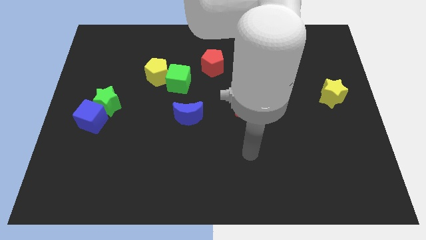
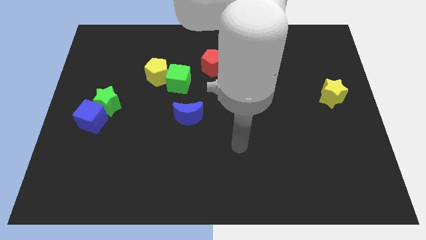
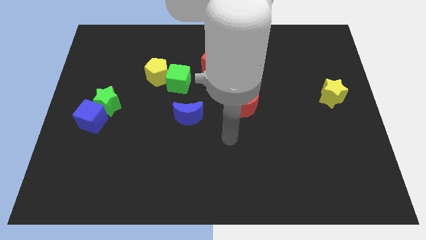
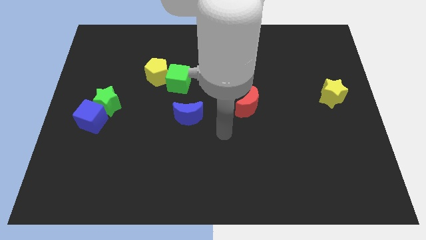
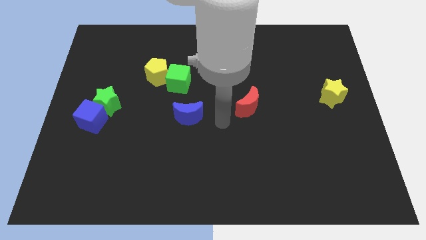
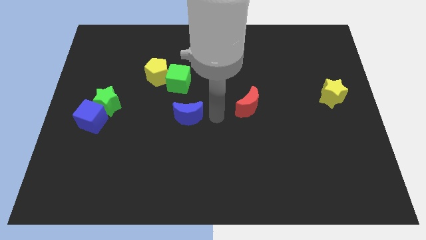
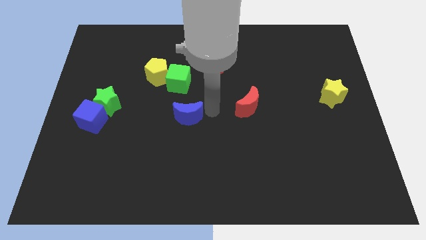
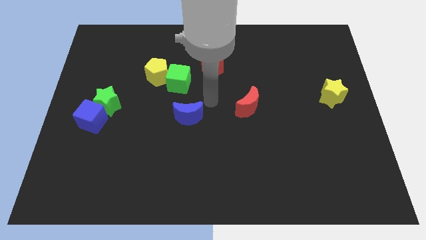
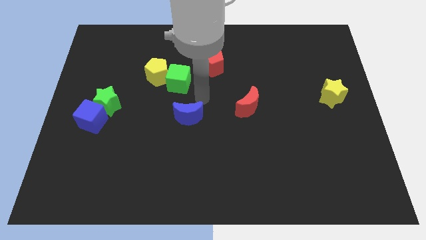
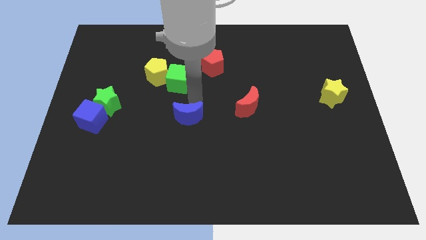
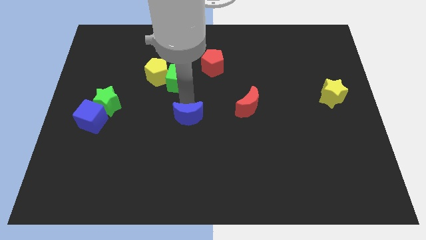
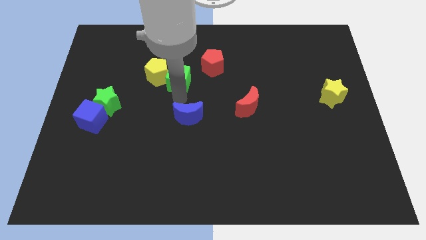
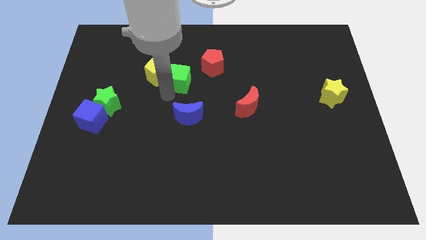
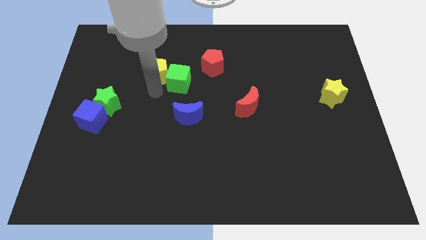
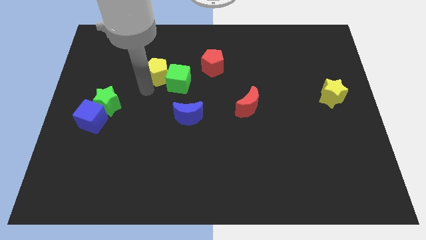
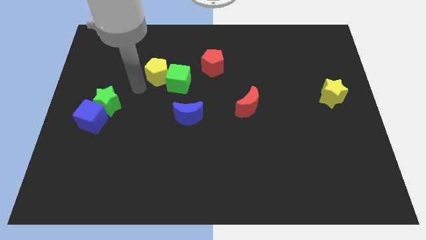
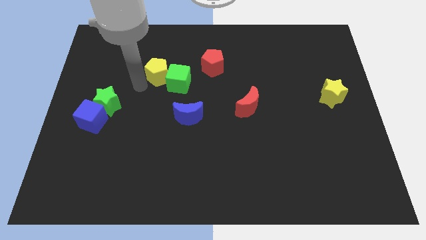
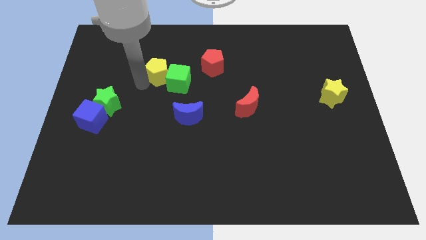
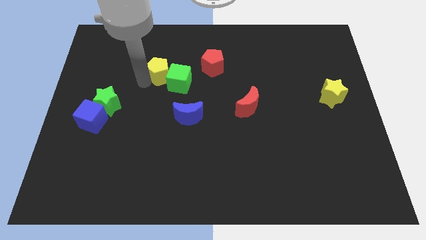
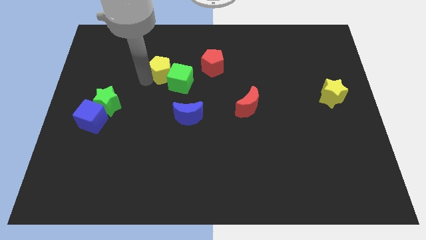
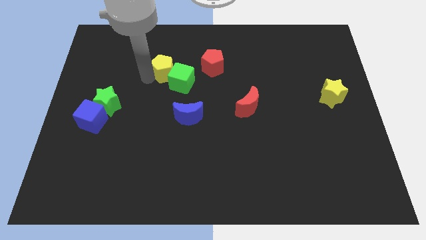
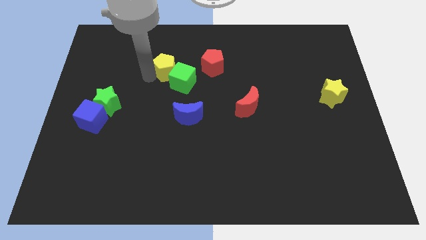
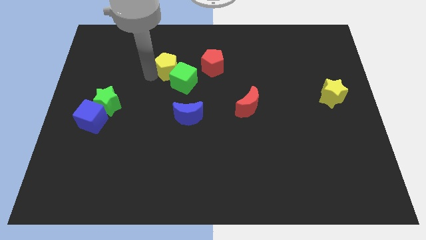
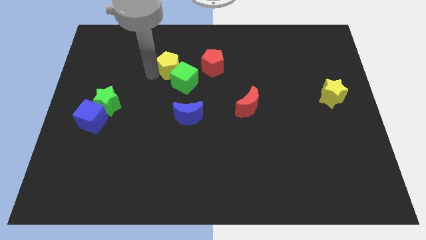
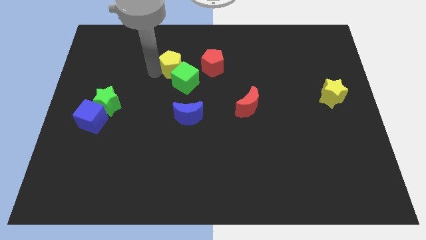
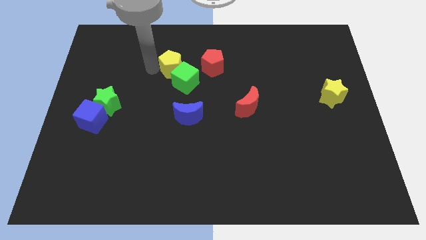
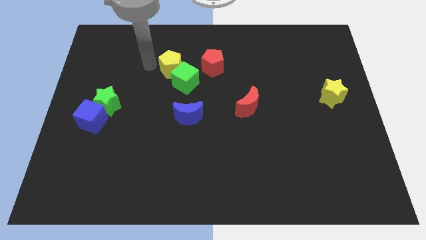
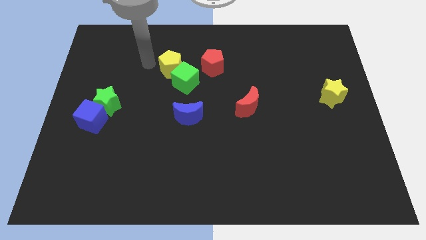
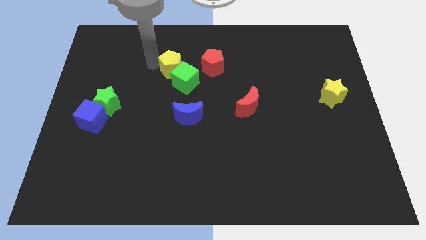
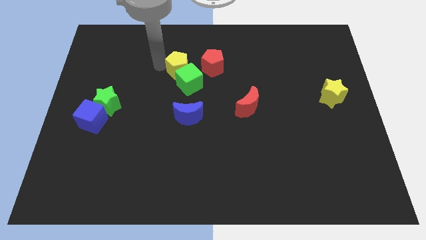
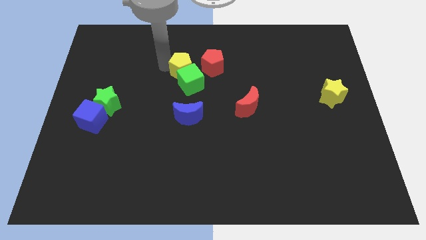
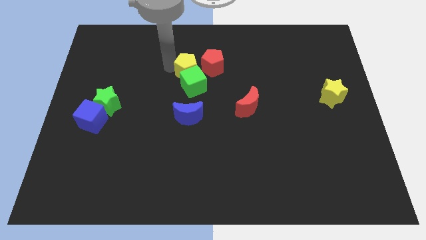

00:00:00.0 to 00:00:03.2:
slide the yellow pentagon right a little

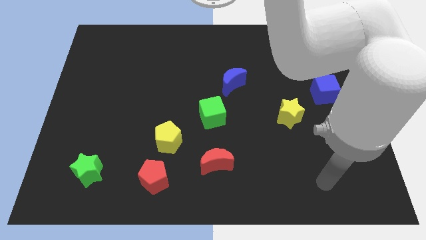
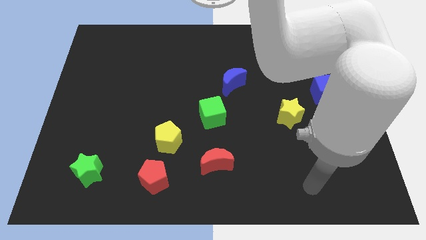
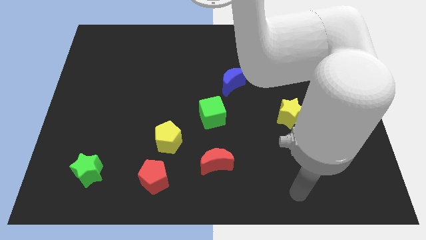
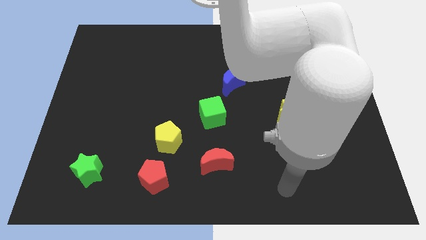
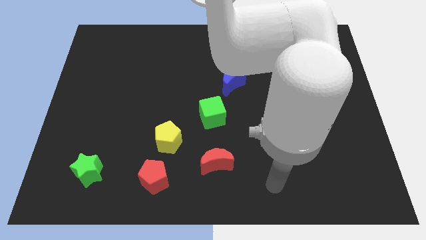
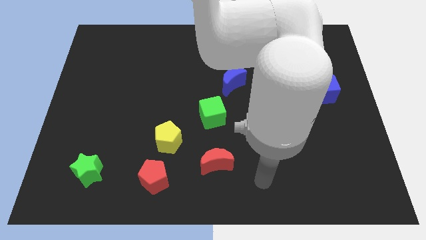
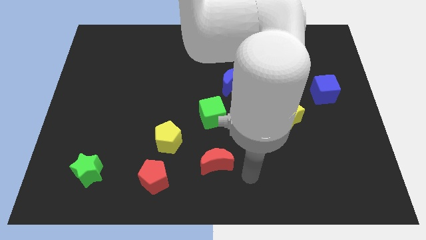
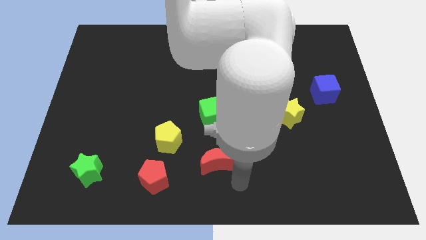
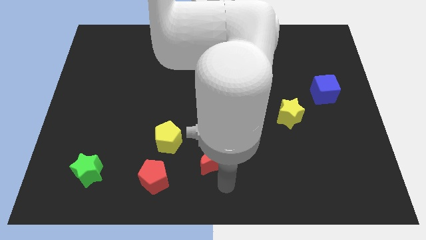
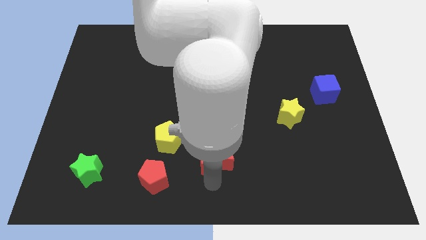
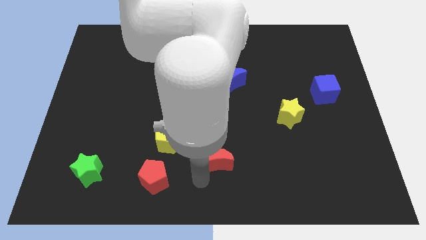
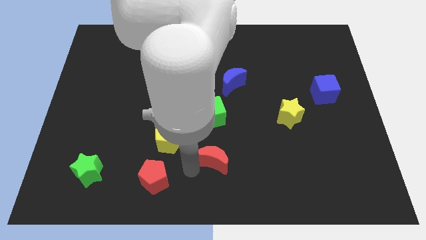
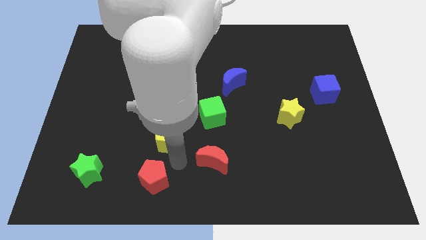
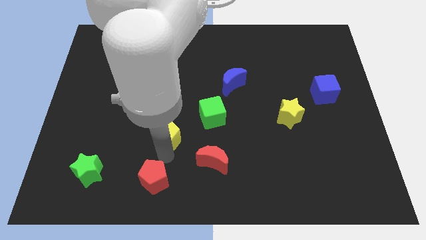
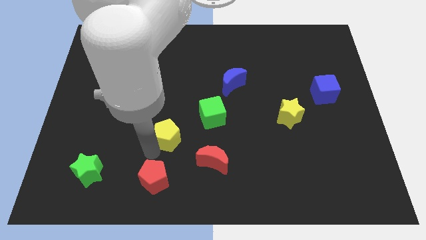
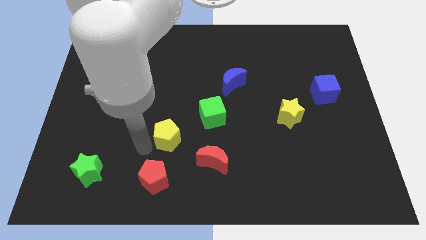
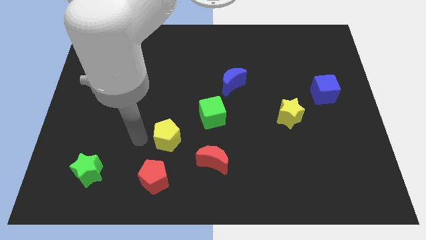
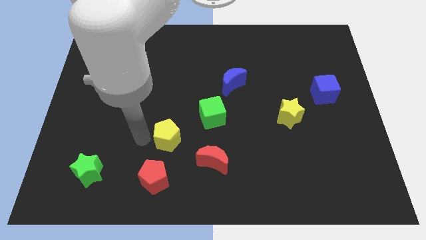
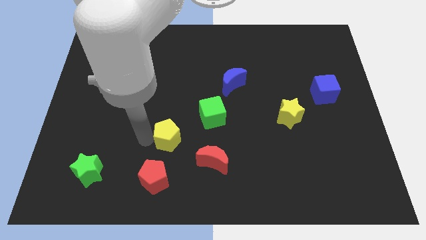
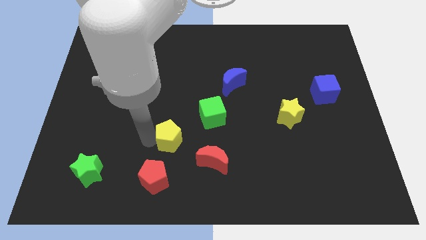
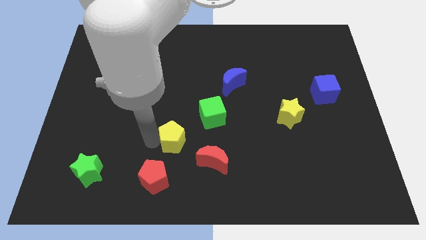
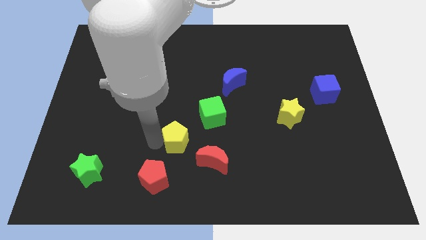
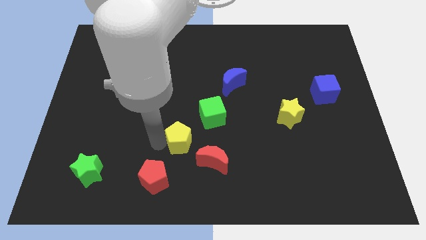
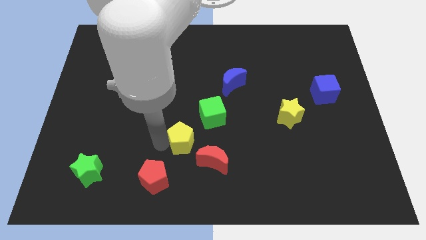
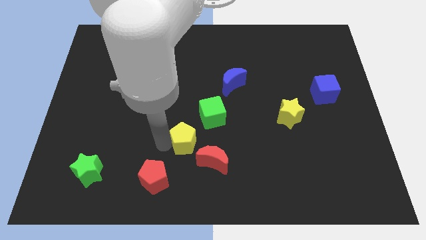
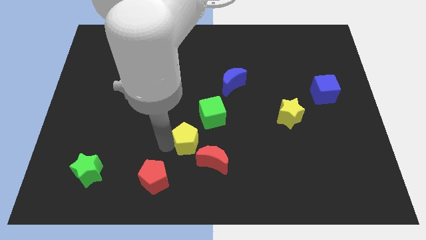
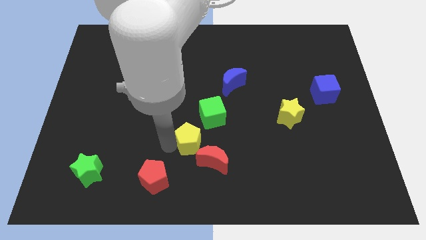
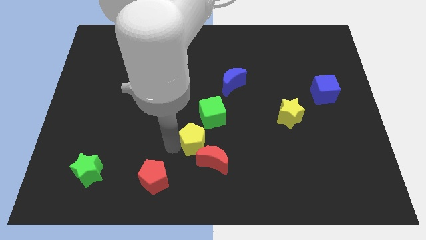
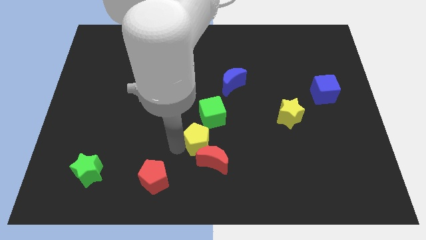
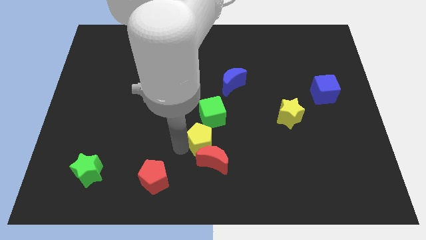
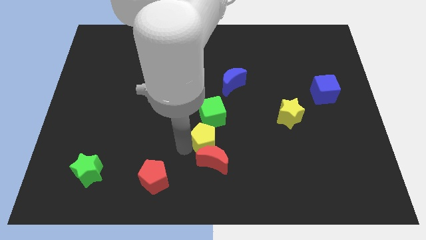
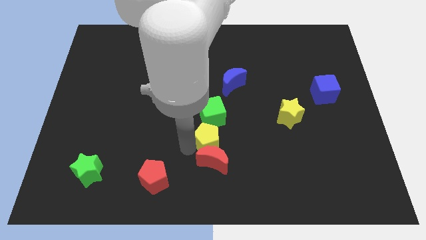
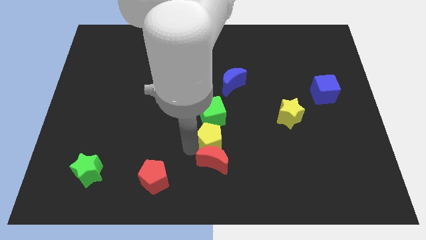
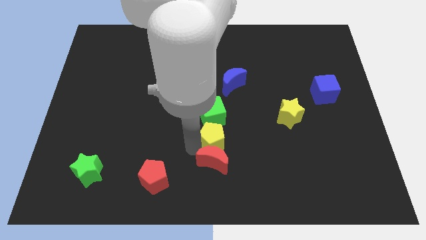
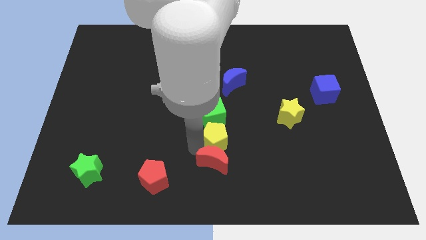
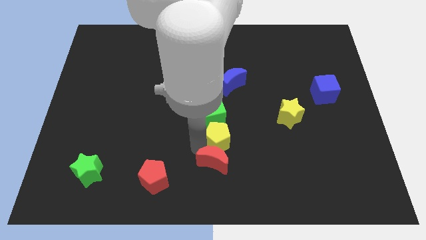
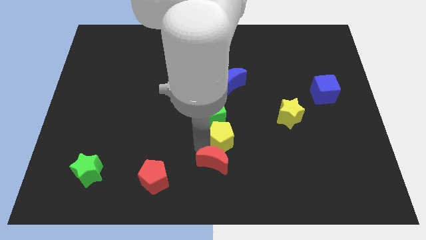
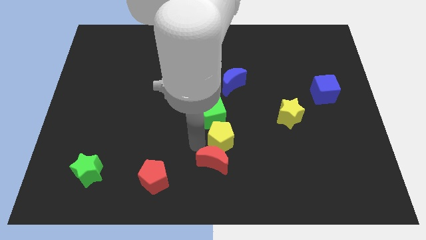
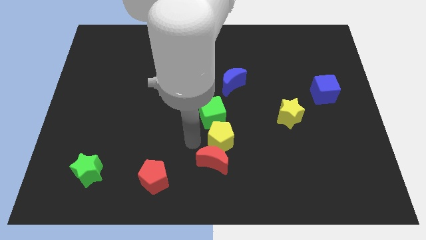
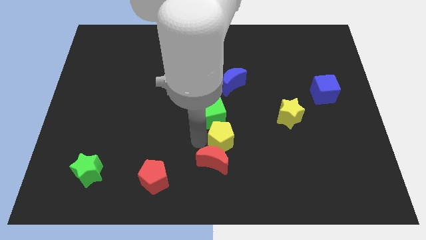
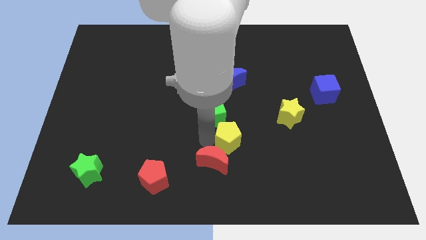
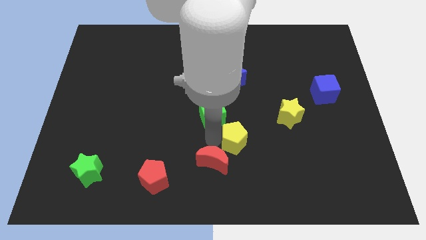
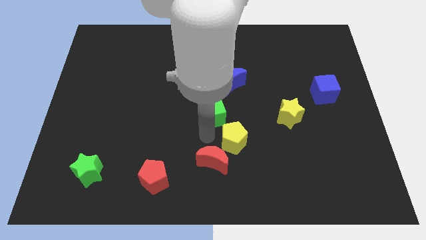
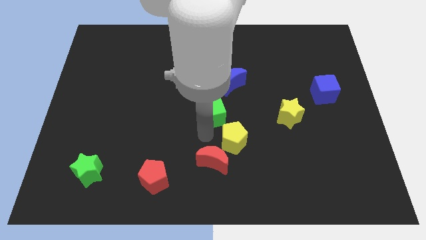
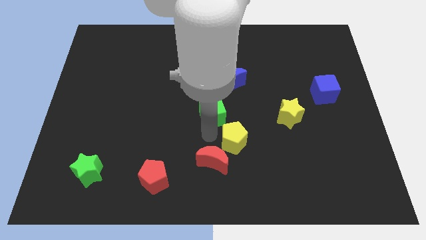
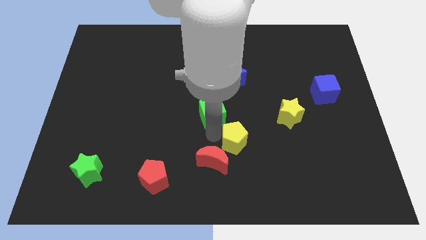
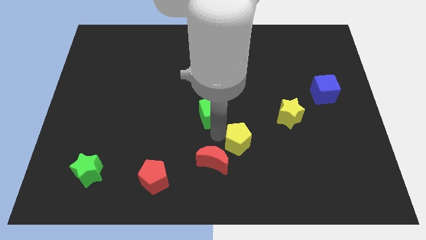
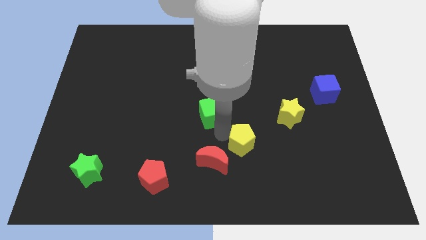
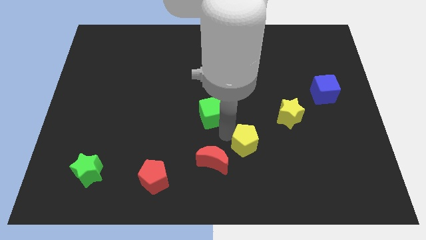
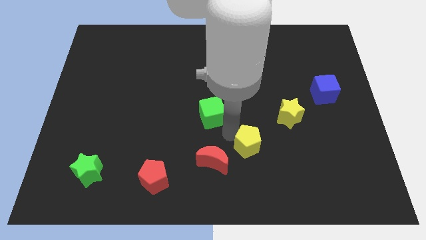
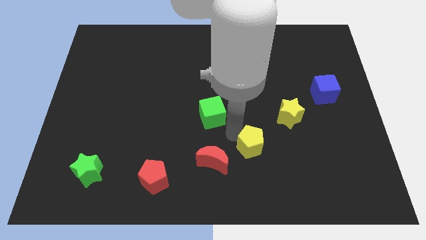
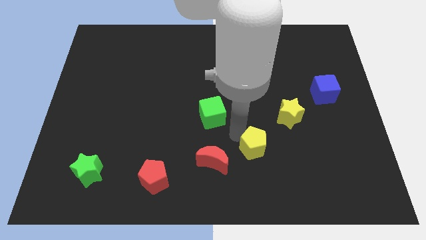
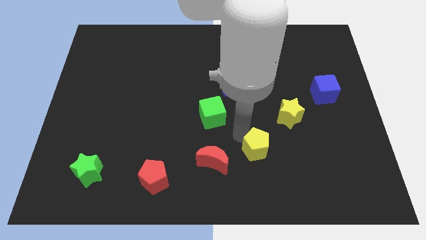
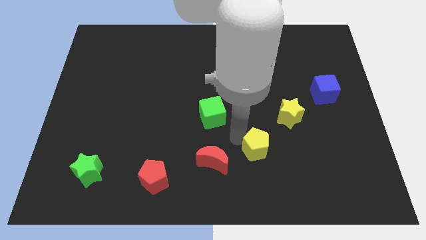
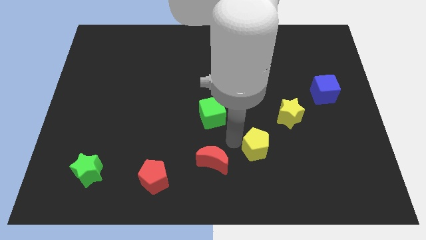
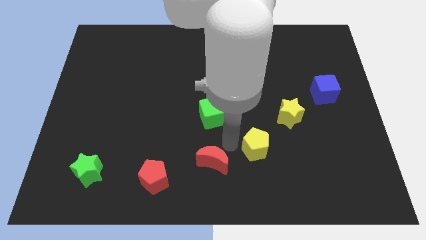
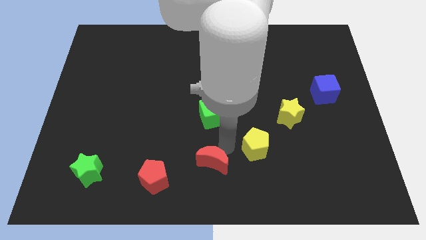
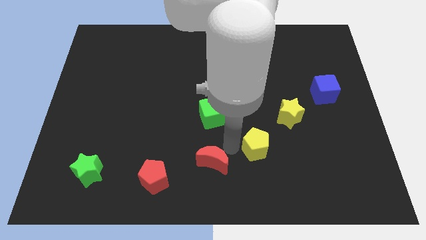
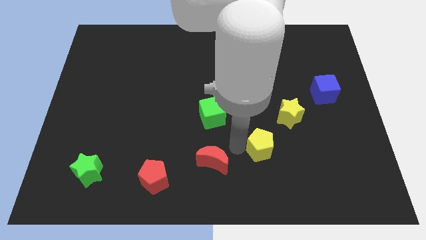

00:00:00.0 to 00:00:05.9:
slide the yellow pentagon to the right
